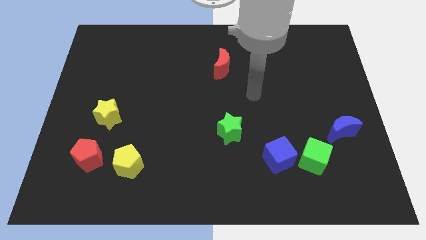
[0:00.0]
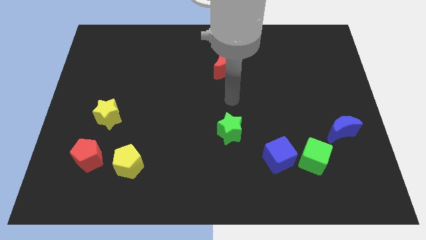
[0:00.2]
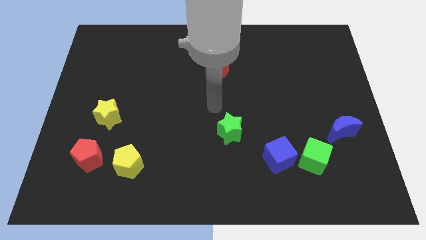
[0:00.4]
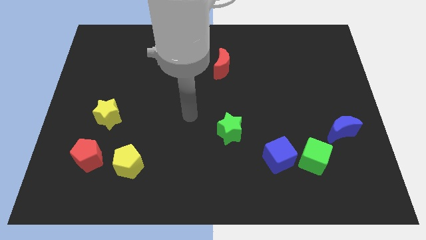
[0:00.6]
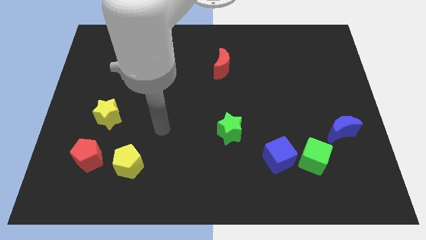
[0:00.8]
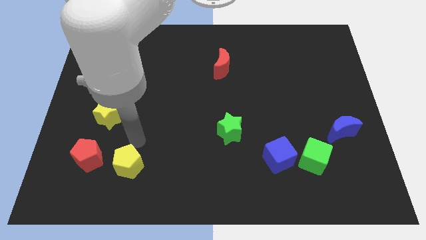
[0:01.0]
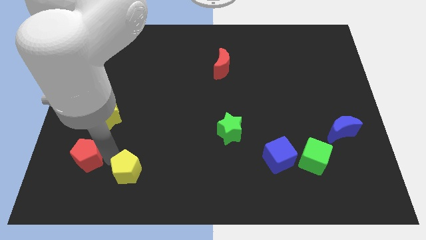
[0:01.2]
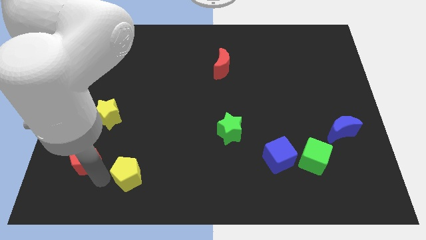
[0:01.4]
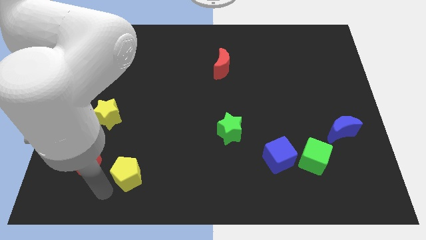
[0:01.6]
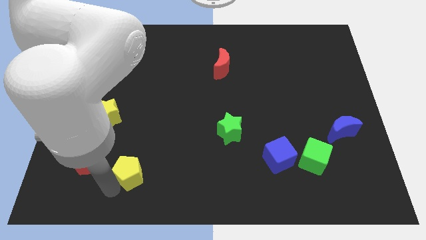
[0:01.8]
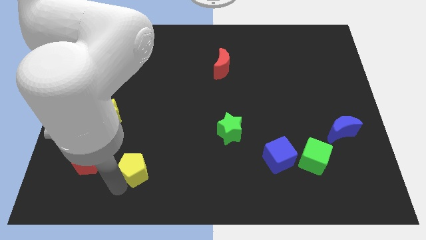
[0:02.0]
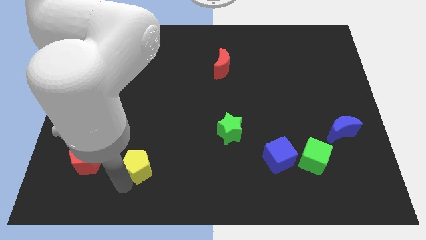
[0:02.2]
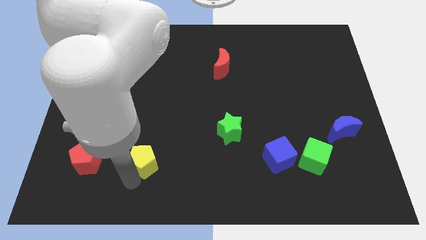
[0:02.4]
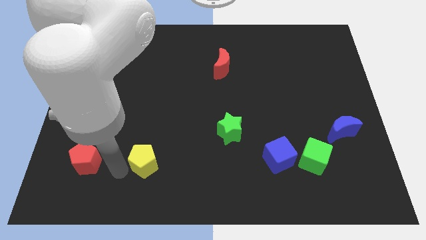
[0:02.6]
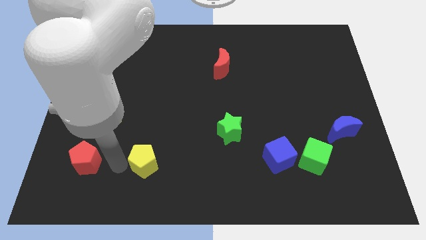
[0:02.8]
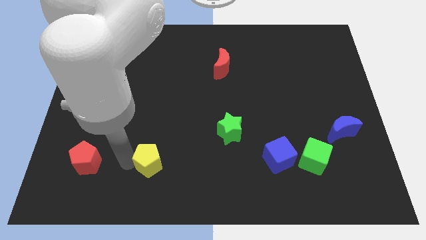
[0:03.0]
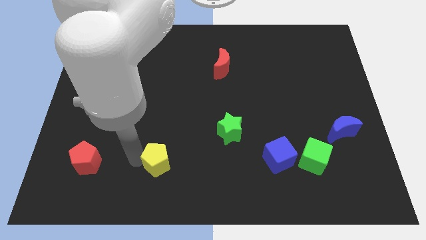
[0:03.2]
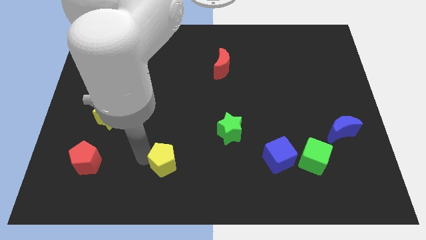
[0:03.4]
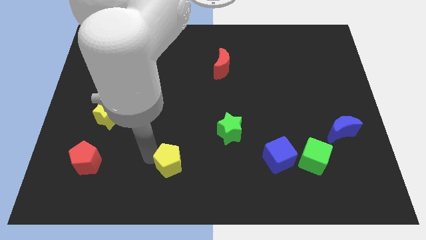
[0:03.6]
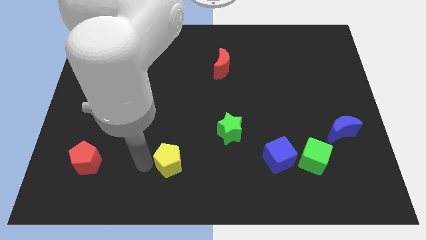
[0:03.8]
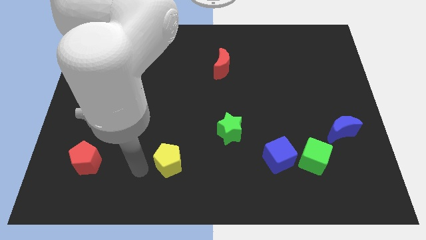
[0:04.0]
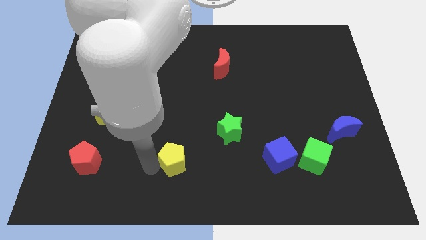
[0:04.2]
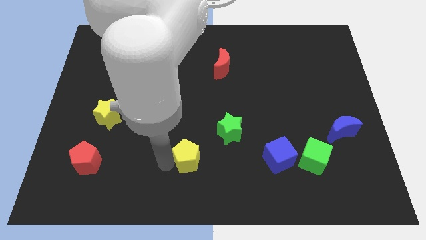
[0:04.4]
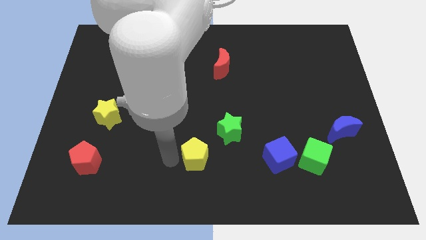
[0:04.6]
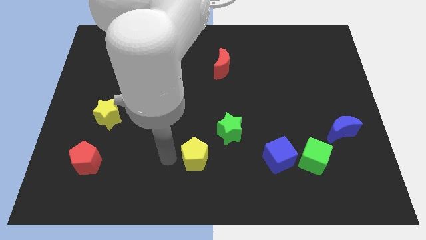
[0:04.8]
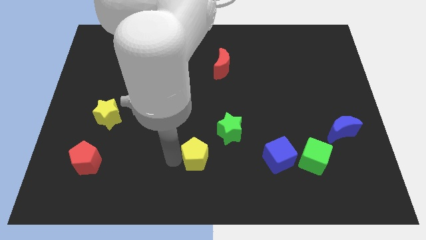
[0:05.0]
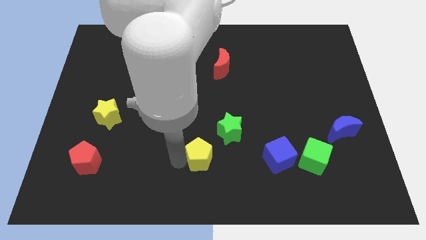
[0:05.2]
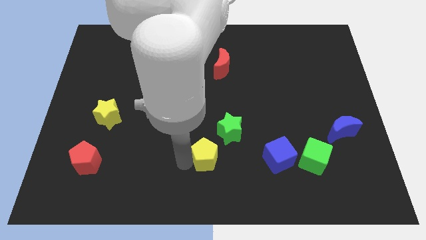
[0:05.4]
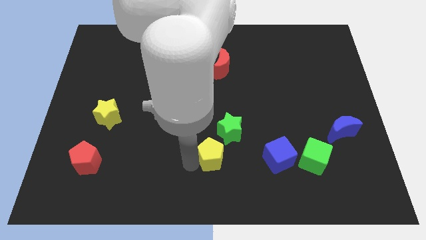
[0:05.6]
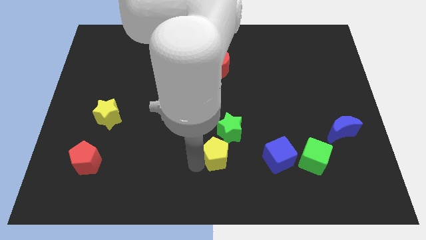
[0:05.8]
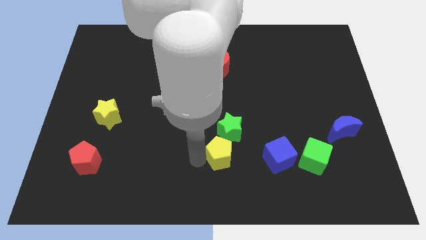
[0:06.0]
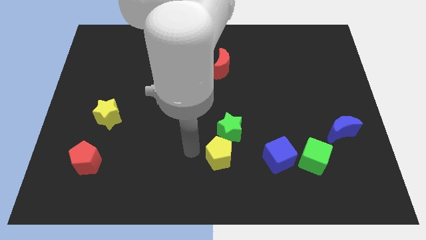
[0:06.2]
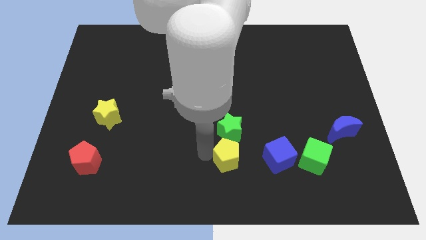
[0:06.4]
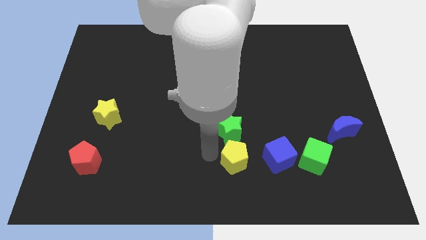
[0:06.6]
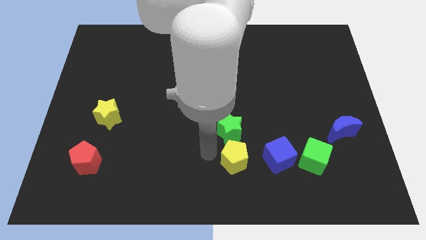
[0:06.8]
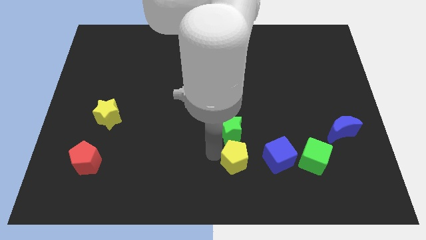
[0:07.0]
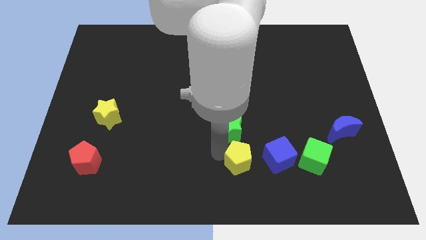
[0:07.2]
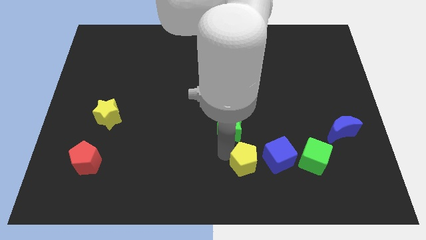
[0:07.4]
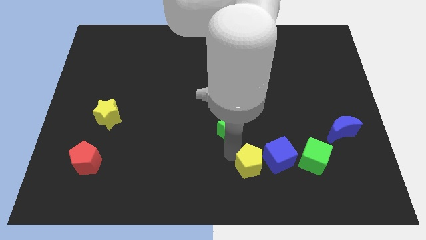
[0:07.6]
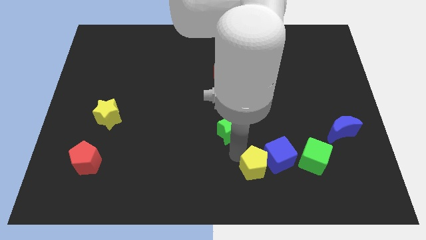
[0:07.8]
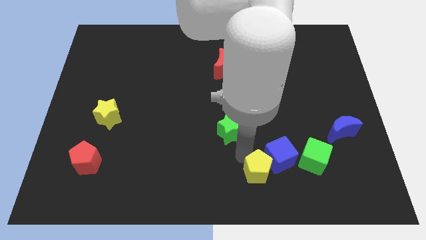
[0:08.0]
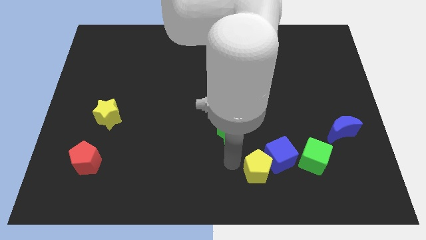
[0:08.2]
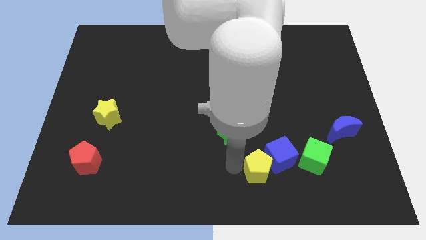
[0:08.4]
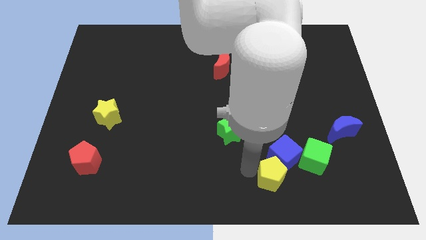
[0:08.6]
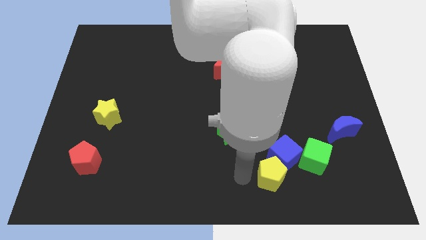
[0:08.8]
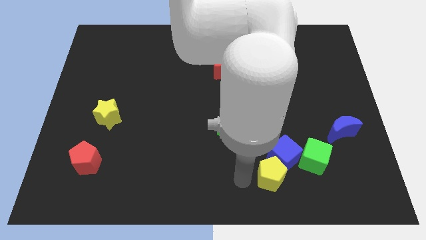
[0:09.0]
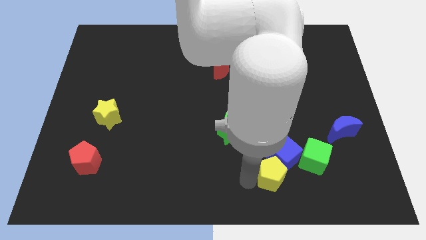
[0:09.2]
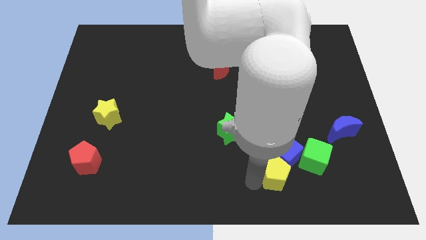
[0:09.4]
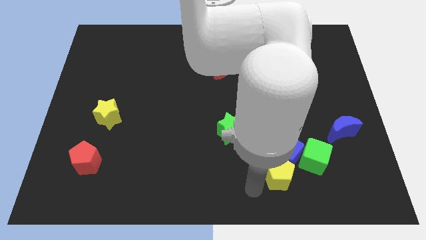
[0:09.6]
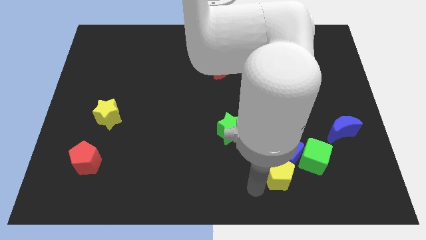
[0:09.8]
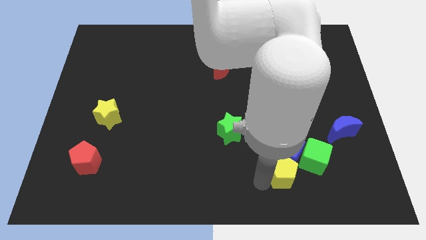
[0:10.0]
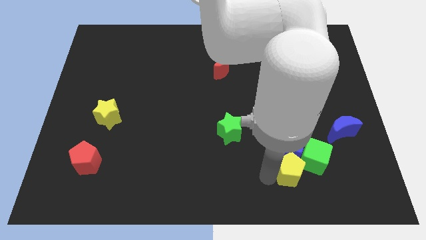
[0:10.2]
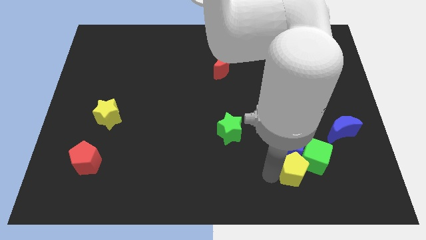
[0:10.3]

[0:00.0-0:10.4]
move the yellow pentagon to the green cube

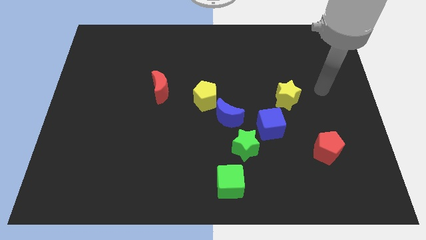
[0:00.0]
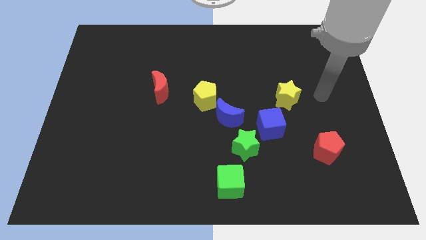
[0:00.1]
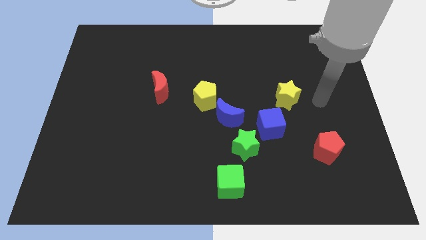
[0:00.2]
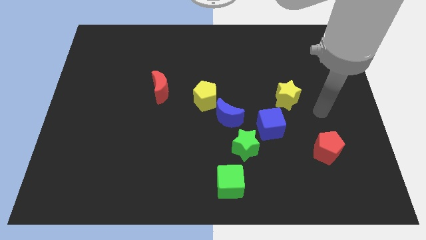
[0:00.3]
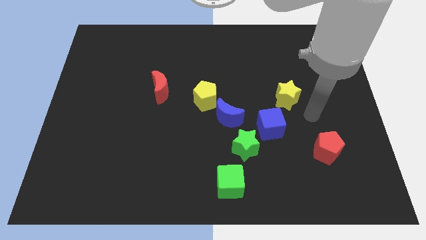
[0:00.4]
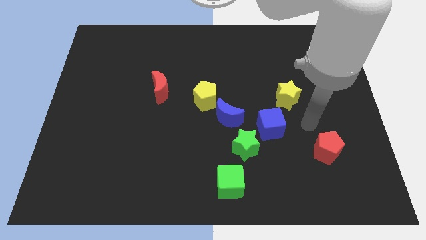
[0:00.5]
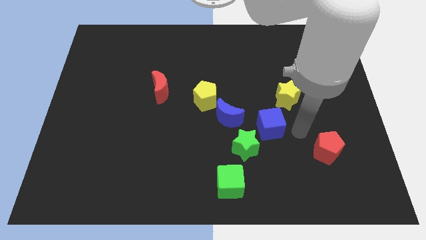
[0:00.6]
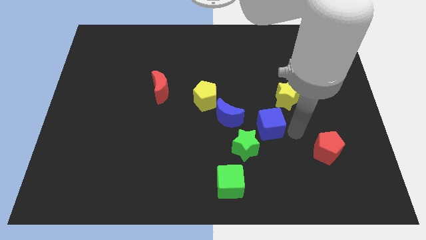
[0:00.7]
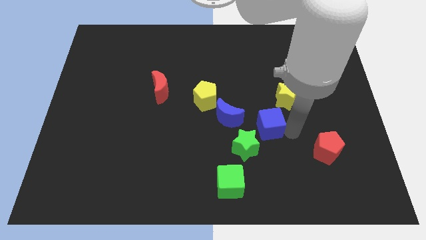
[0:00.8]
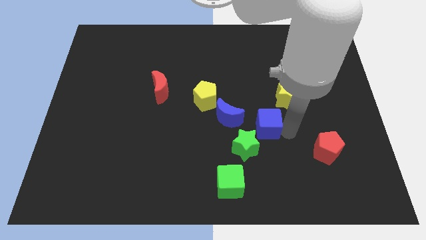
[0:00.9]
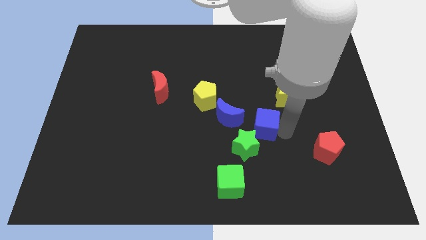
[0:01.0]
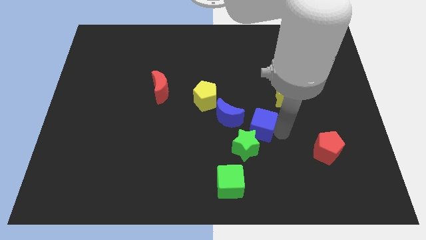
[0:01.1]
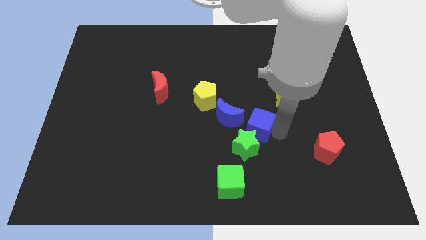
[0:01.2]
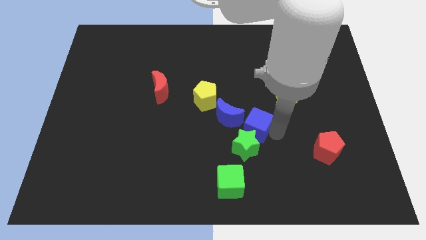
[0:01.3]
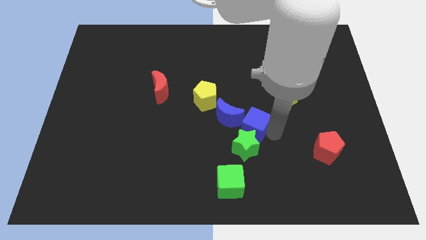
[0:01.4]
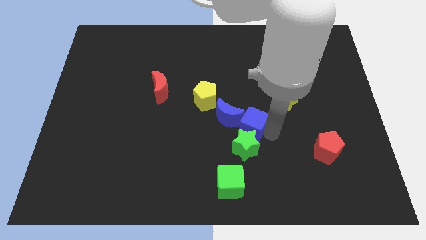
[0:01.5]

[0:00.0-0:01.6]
push the blue cube towards the blue moon

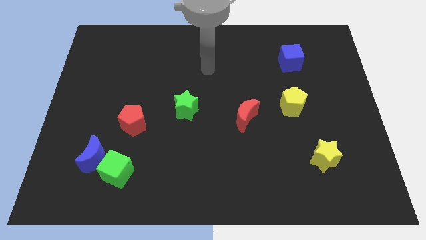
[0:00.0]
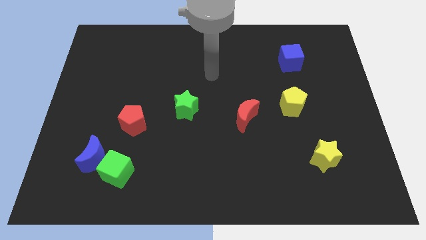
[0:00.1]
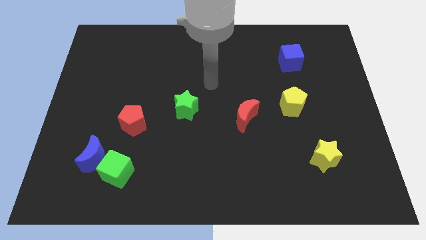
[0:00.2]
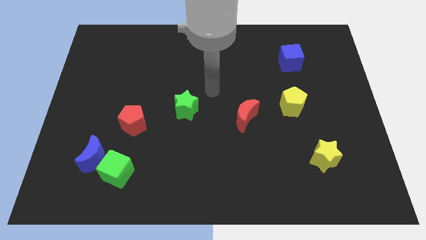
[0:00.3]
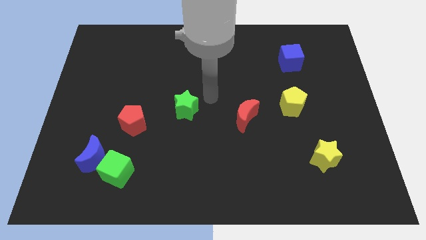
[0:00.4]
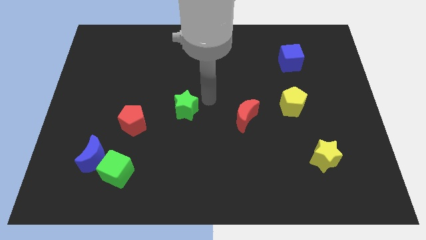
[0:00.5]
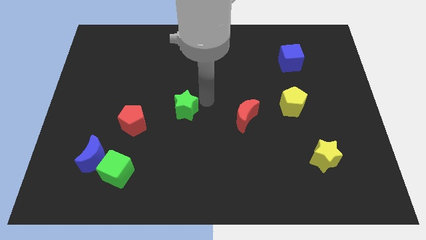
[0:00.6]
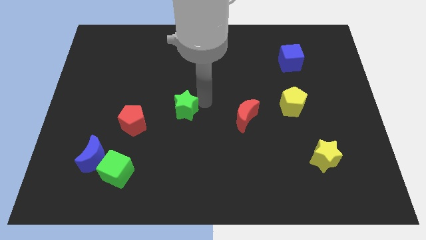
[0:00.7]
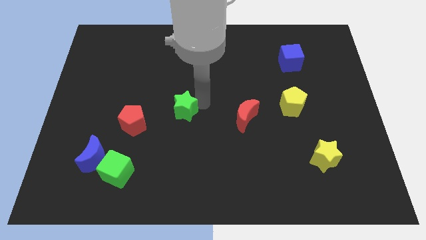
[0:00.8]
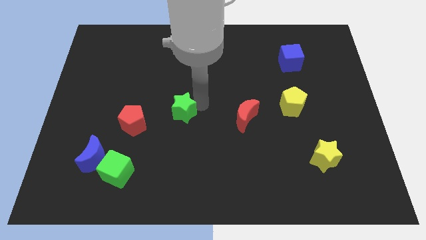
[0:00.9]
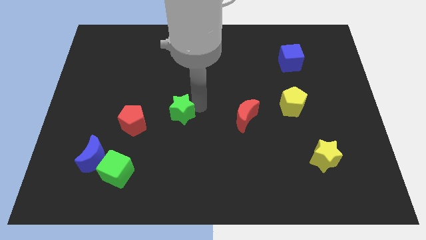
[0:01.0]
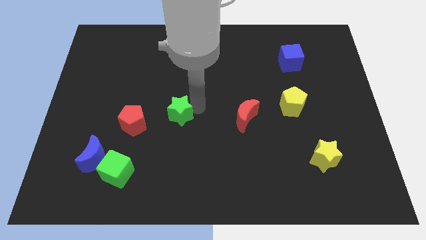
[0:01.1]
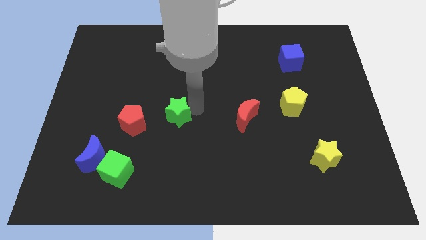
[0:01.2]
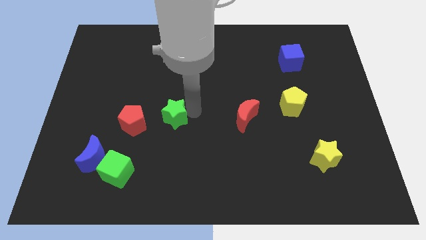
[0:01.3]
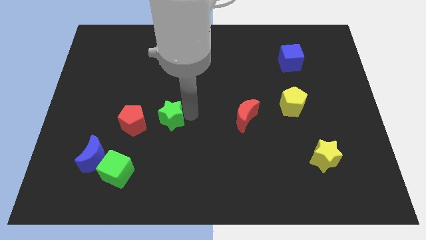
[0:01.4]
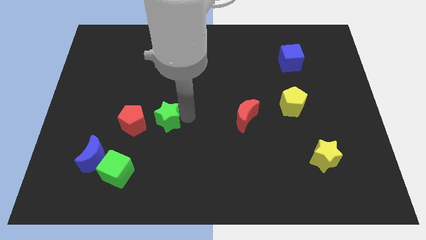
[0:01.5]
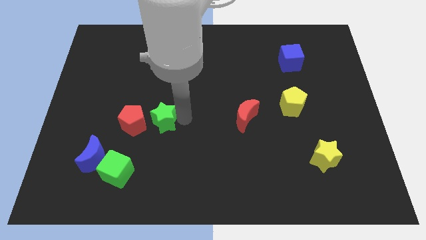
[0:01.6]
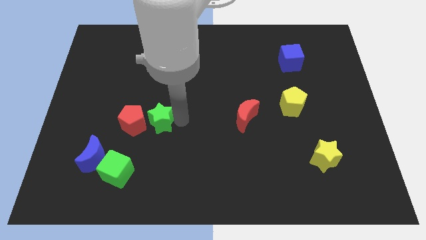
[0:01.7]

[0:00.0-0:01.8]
put the green star towards the red pentagon
